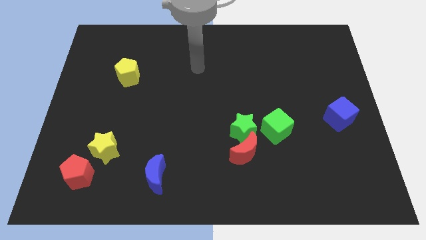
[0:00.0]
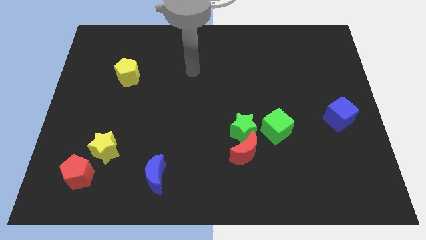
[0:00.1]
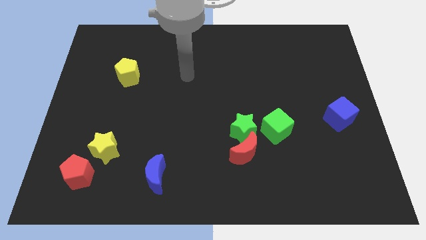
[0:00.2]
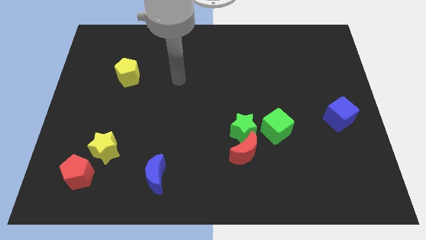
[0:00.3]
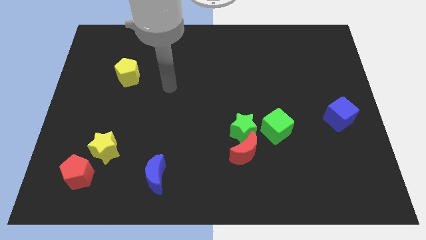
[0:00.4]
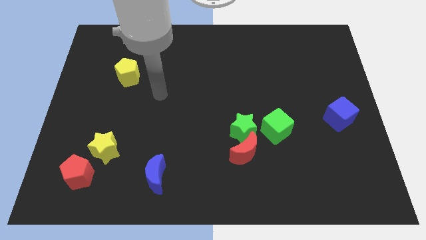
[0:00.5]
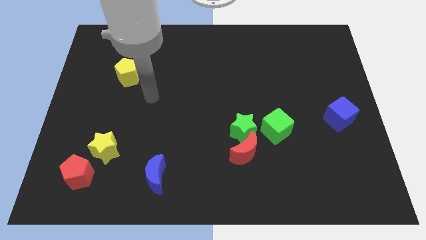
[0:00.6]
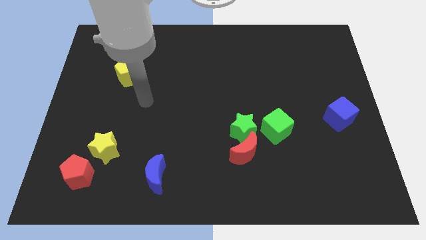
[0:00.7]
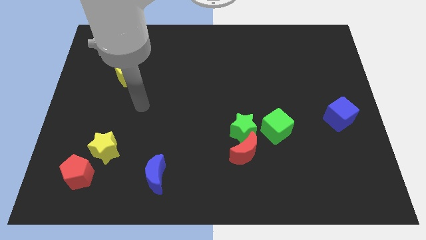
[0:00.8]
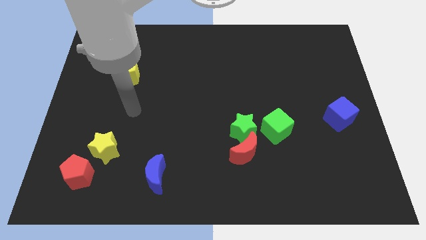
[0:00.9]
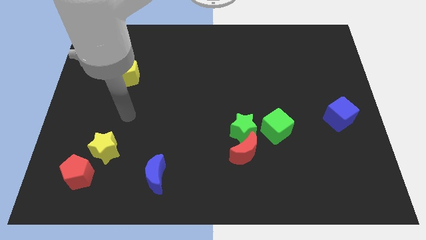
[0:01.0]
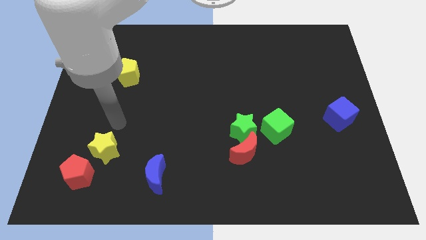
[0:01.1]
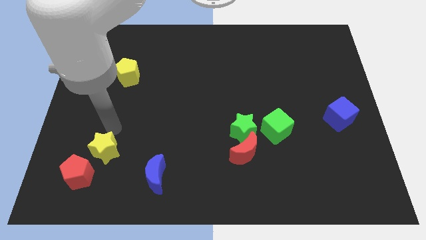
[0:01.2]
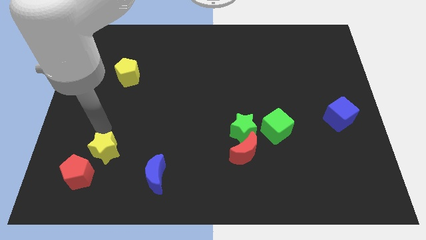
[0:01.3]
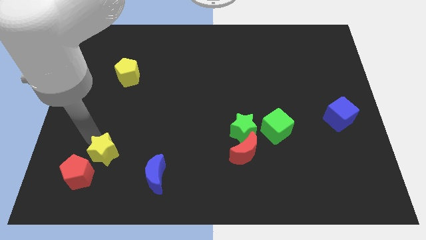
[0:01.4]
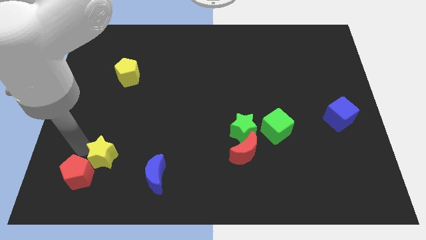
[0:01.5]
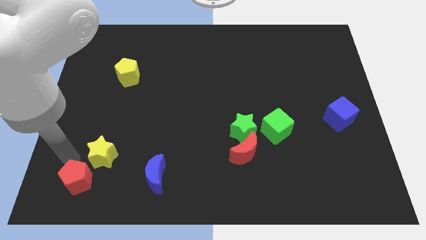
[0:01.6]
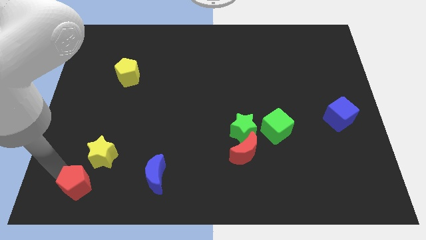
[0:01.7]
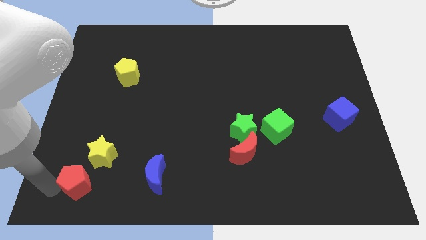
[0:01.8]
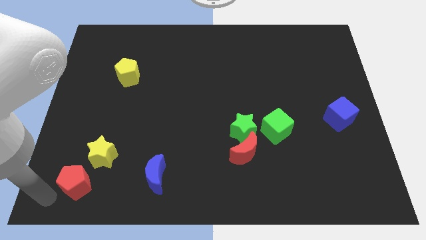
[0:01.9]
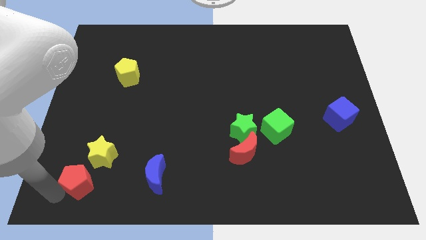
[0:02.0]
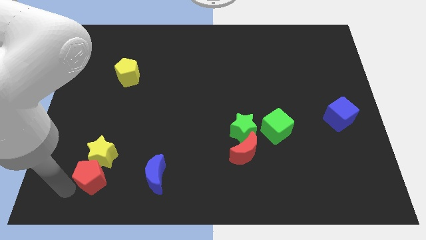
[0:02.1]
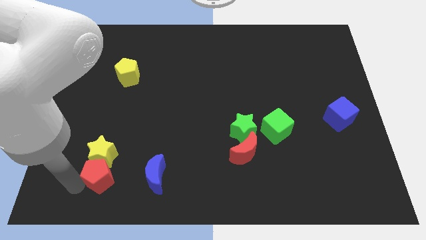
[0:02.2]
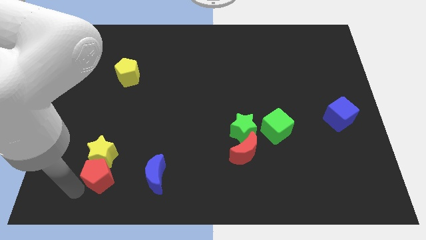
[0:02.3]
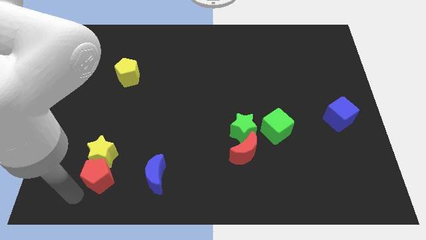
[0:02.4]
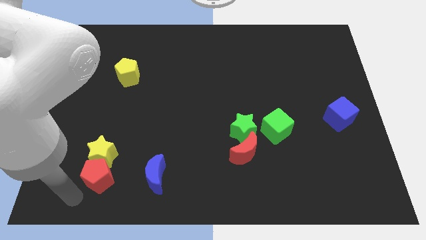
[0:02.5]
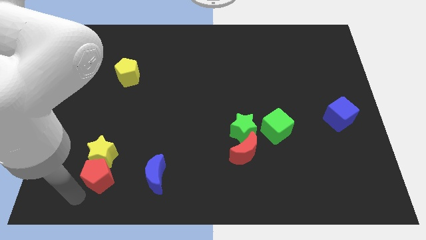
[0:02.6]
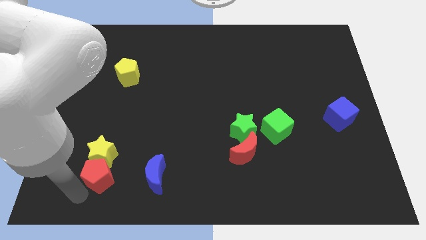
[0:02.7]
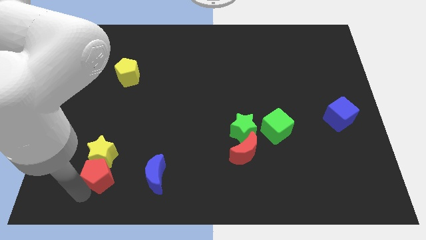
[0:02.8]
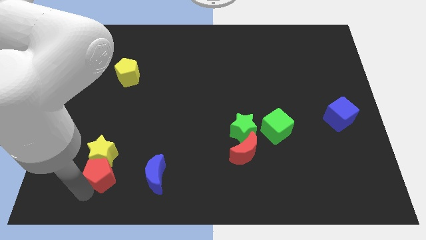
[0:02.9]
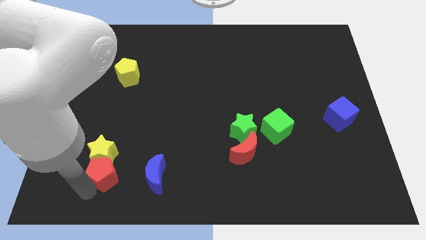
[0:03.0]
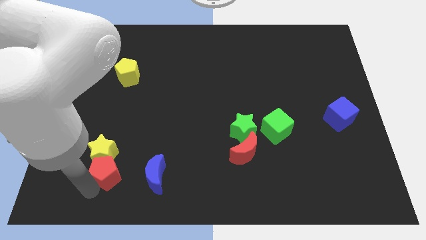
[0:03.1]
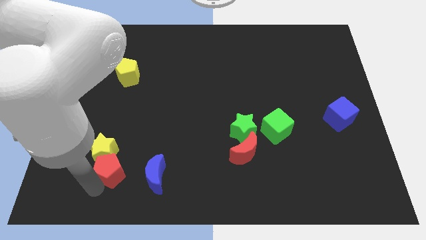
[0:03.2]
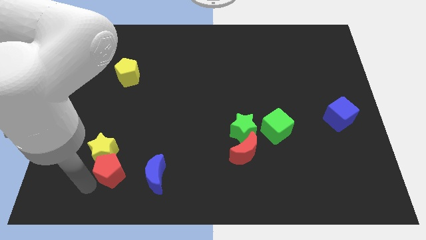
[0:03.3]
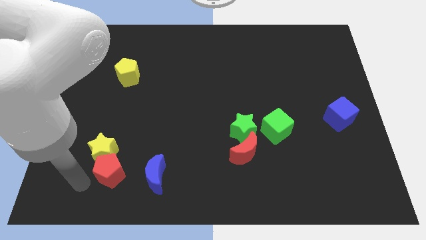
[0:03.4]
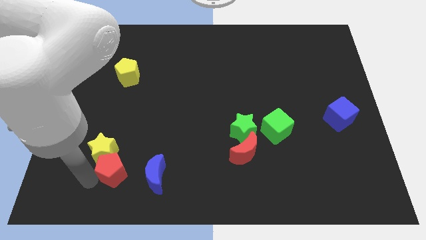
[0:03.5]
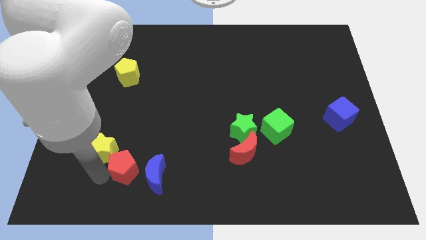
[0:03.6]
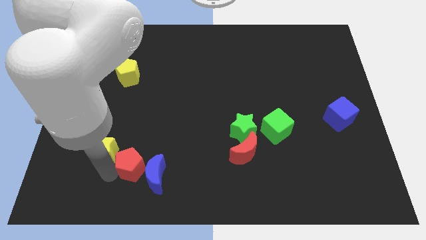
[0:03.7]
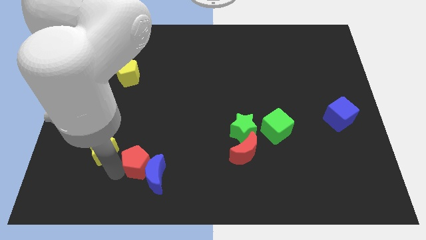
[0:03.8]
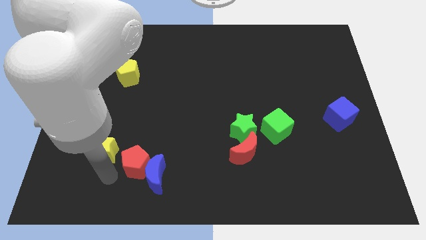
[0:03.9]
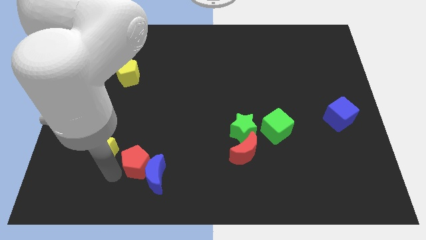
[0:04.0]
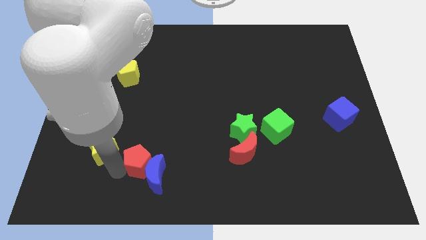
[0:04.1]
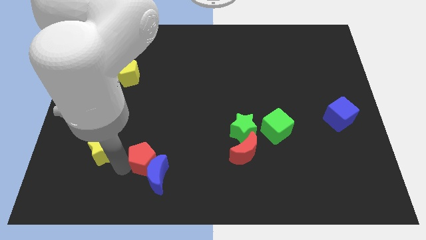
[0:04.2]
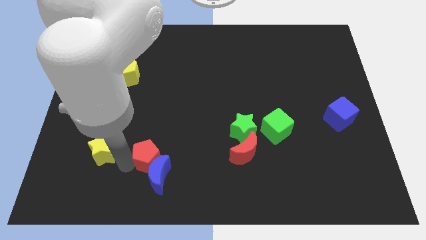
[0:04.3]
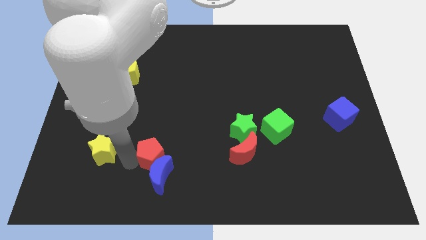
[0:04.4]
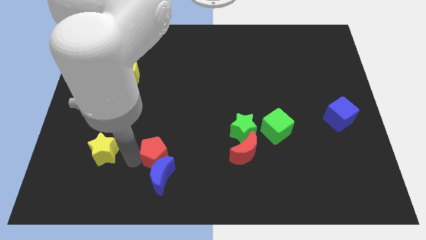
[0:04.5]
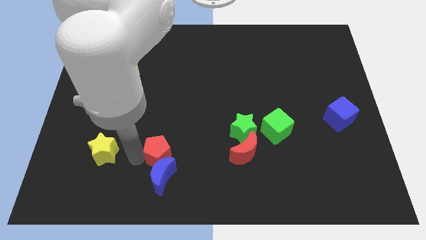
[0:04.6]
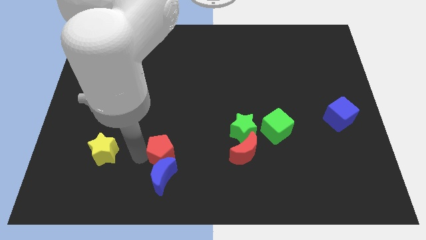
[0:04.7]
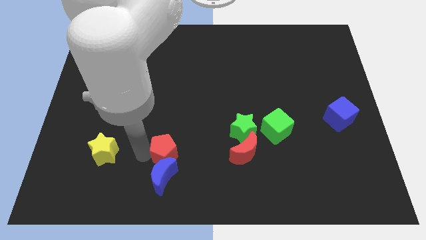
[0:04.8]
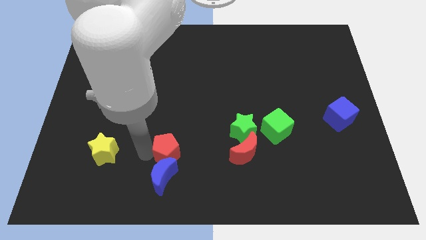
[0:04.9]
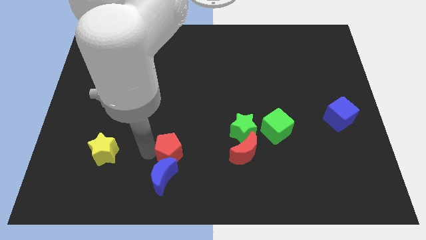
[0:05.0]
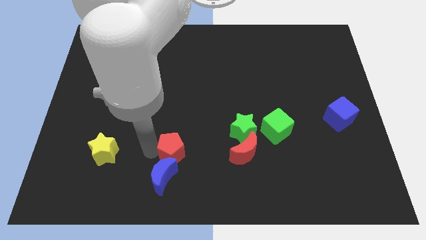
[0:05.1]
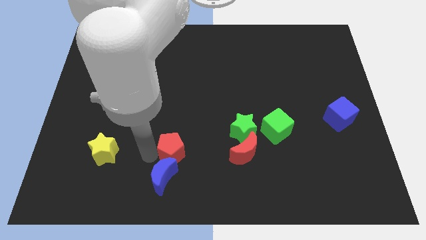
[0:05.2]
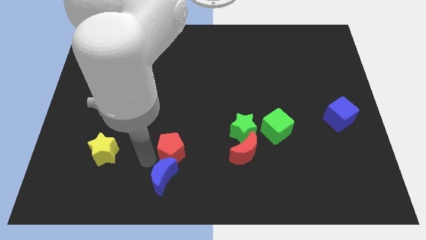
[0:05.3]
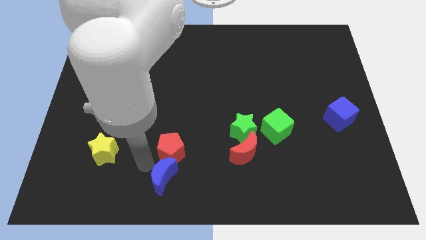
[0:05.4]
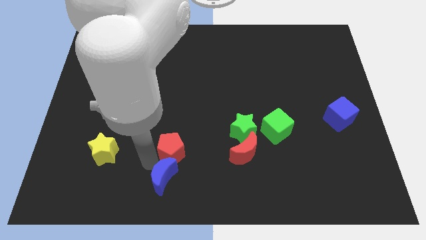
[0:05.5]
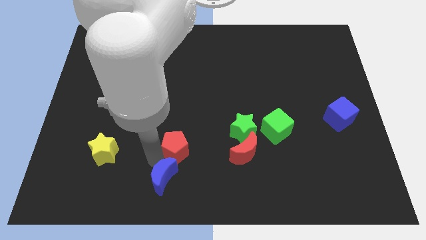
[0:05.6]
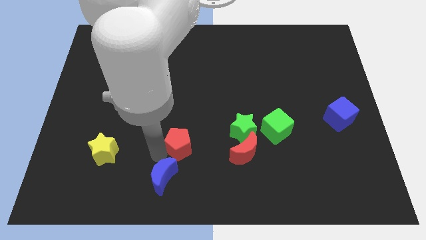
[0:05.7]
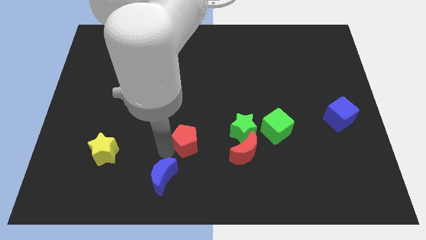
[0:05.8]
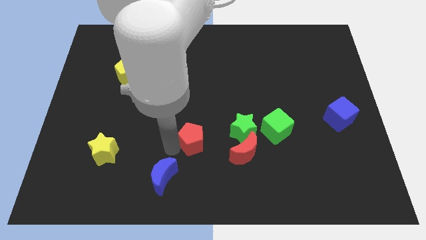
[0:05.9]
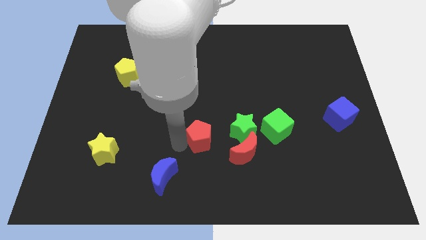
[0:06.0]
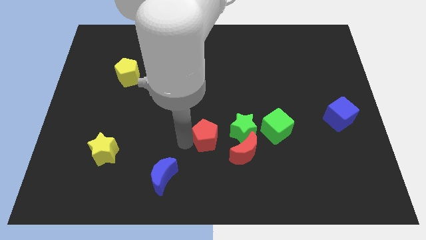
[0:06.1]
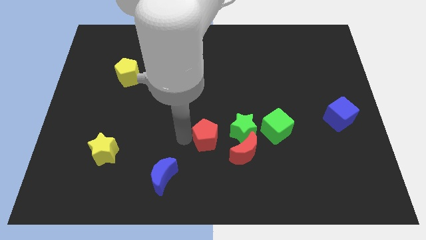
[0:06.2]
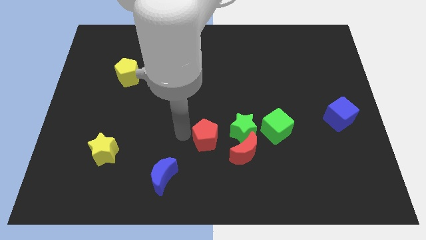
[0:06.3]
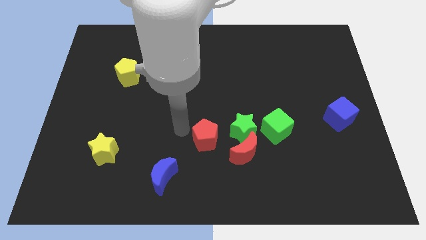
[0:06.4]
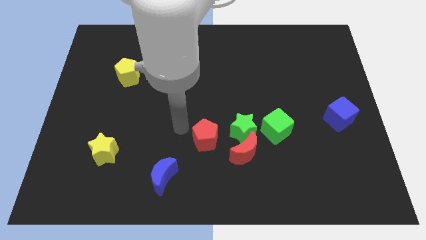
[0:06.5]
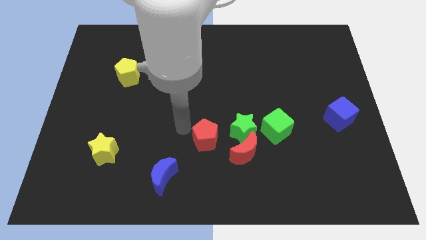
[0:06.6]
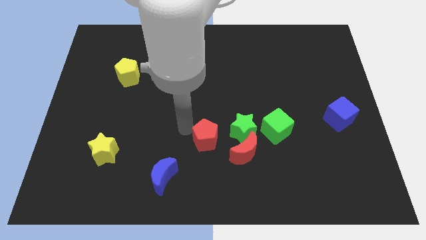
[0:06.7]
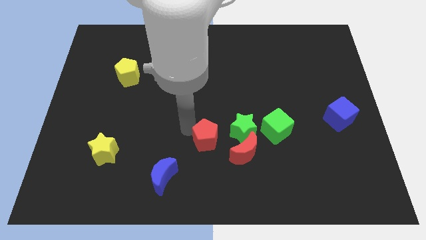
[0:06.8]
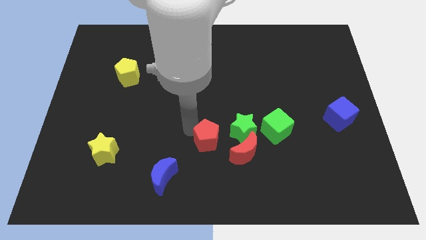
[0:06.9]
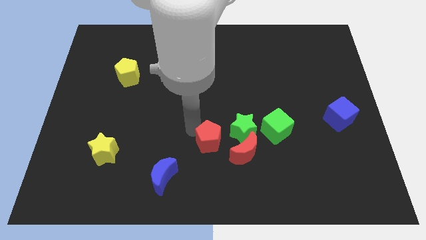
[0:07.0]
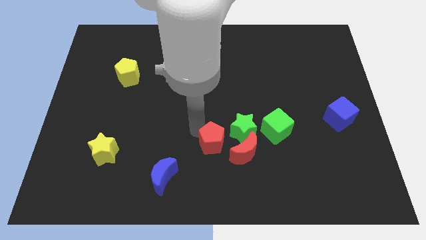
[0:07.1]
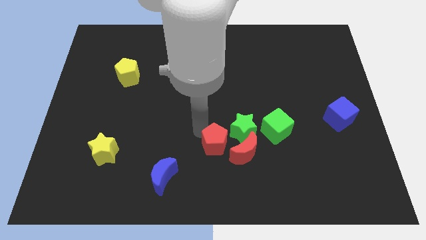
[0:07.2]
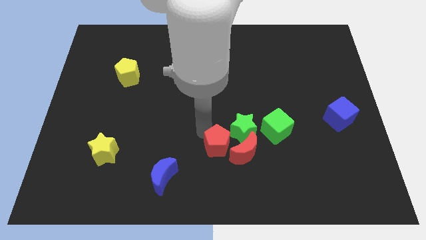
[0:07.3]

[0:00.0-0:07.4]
push the red pentagon to the red moon
